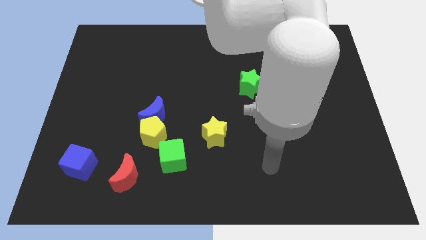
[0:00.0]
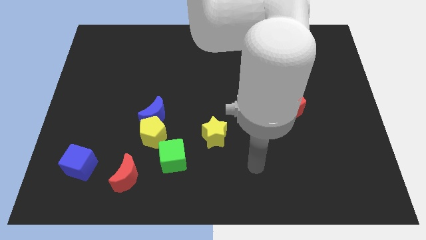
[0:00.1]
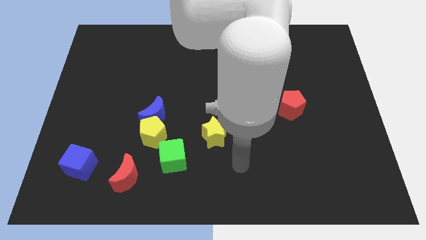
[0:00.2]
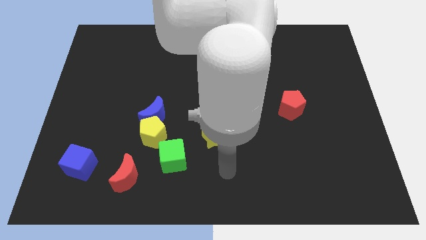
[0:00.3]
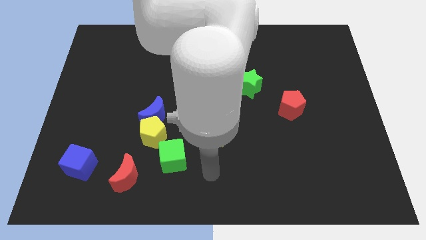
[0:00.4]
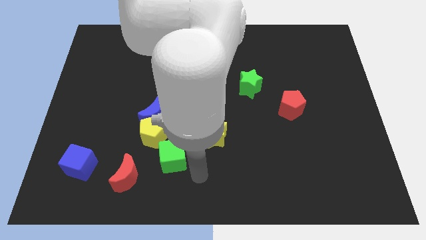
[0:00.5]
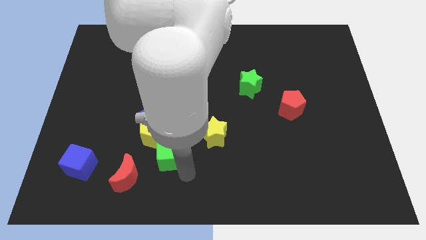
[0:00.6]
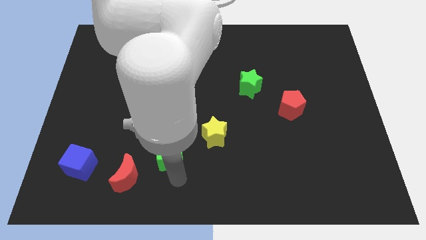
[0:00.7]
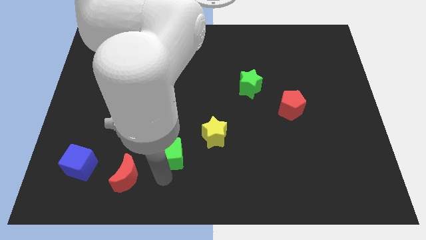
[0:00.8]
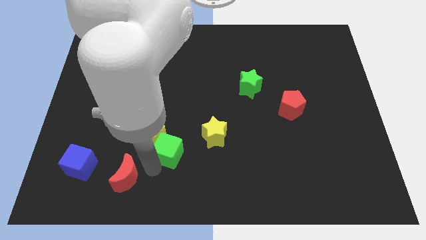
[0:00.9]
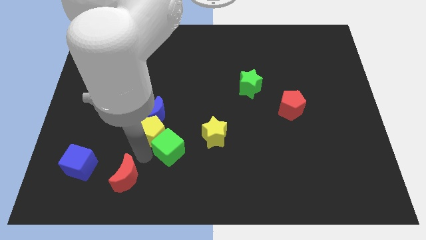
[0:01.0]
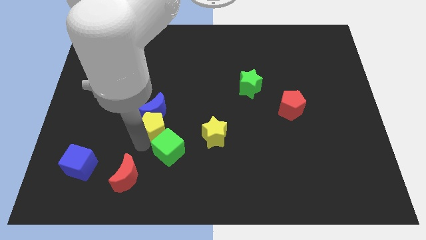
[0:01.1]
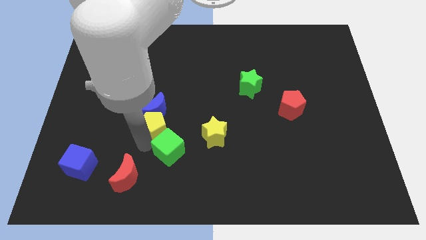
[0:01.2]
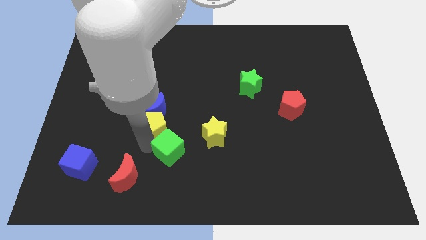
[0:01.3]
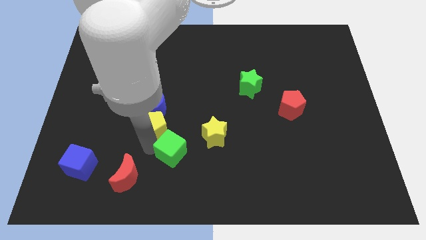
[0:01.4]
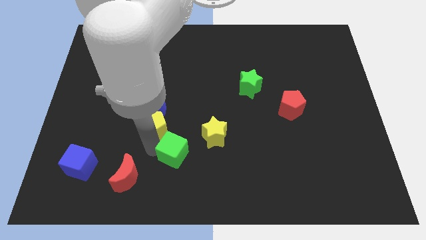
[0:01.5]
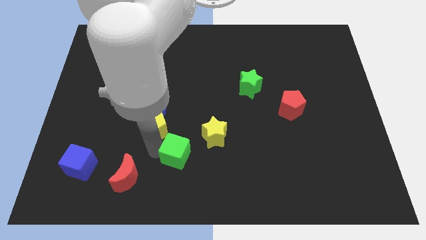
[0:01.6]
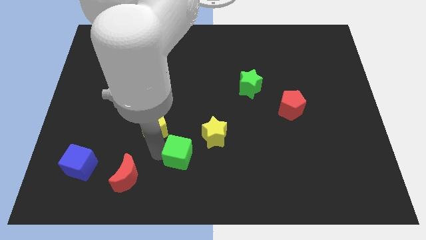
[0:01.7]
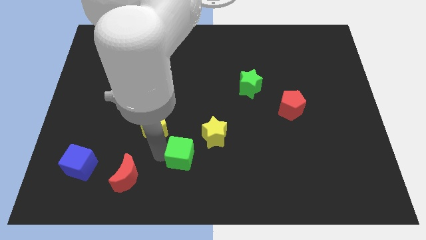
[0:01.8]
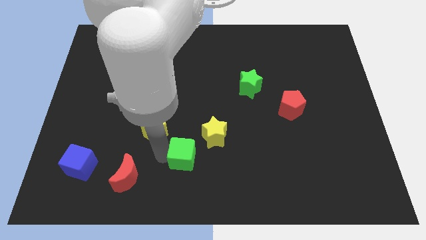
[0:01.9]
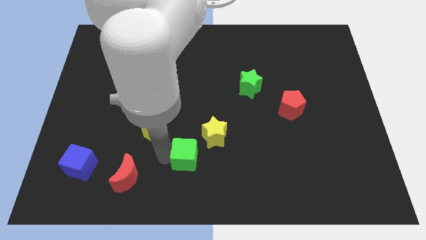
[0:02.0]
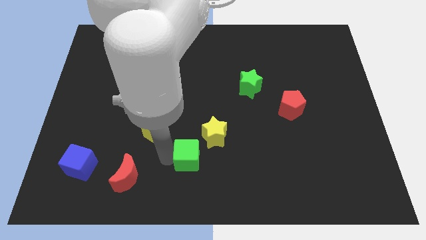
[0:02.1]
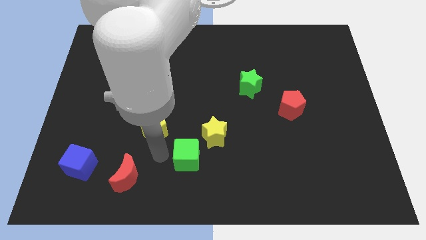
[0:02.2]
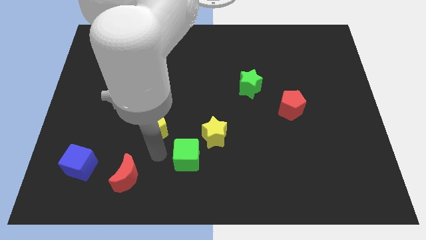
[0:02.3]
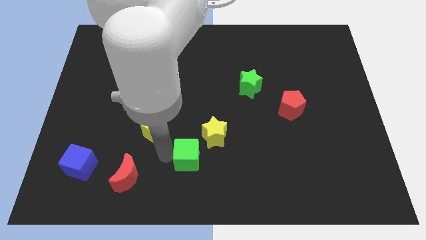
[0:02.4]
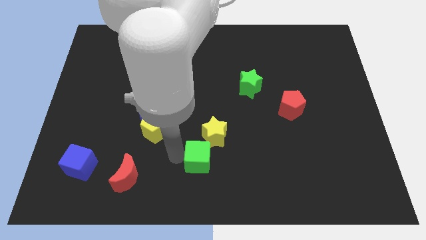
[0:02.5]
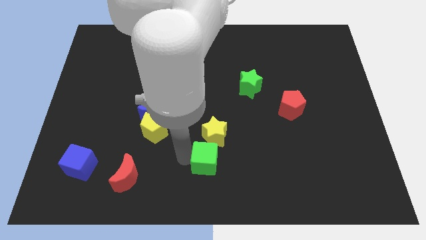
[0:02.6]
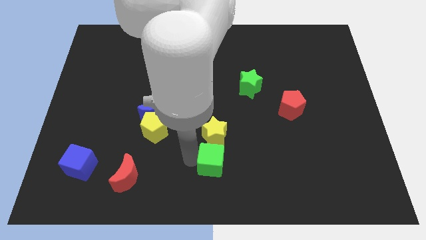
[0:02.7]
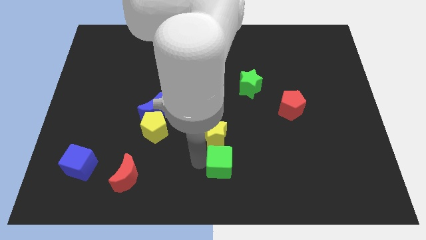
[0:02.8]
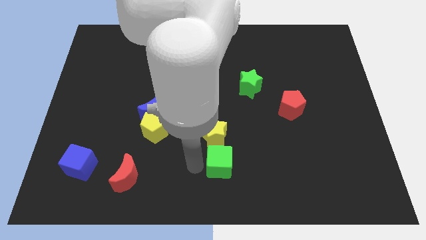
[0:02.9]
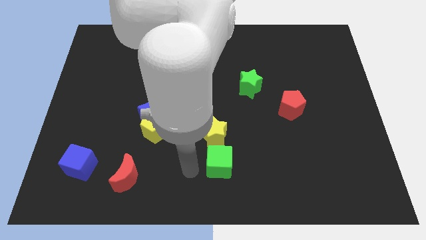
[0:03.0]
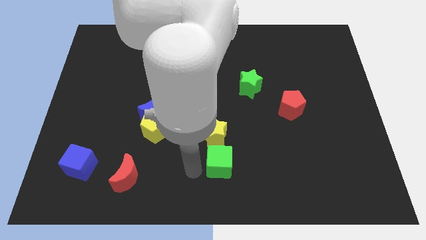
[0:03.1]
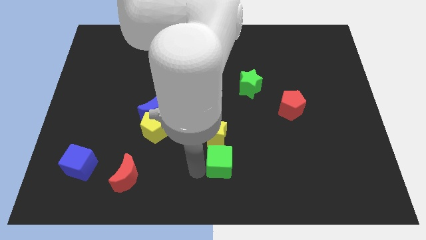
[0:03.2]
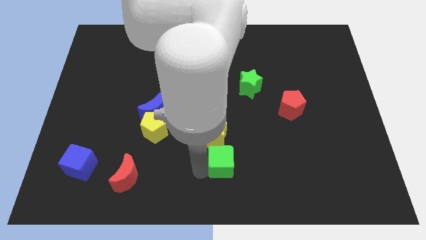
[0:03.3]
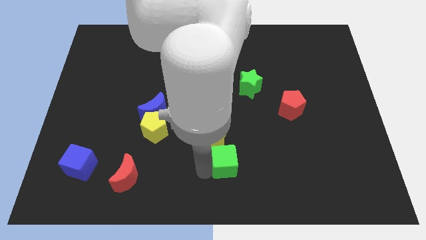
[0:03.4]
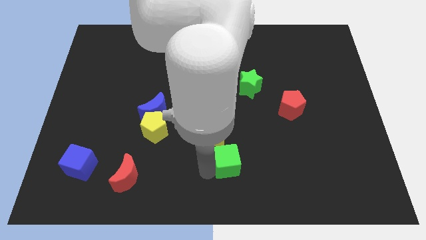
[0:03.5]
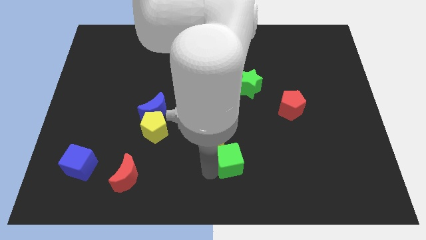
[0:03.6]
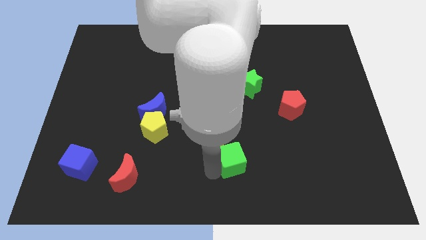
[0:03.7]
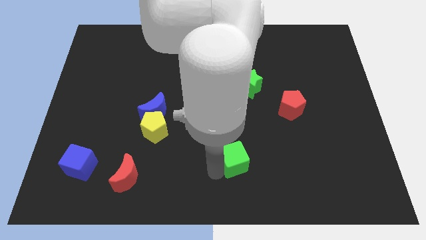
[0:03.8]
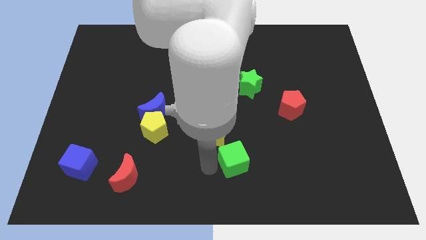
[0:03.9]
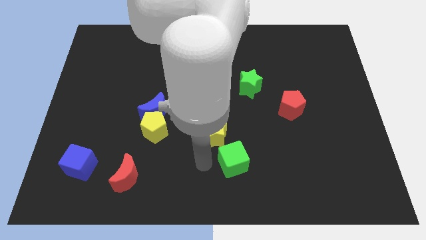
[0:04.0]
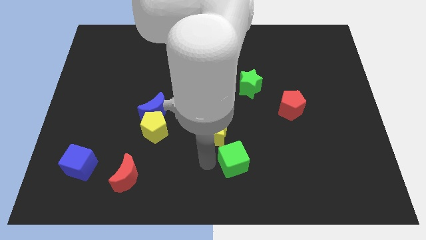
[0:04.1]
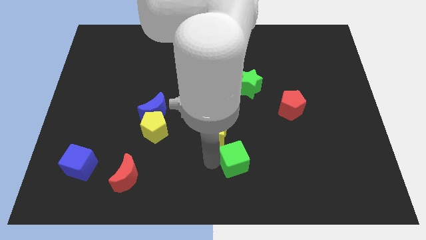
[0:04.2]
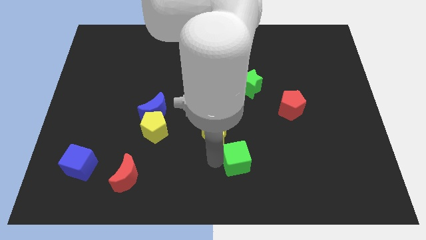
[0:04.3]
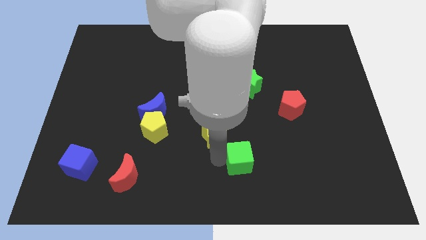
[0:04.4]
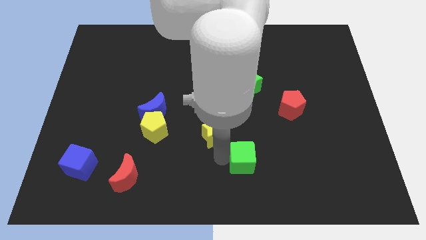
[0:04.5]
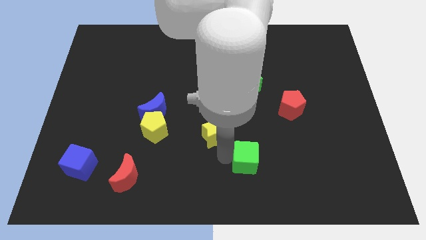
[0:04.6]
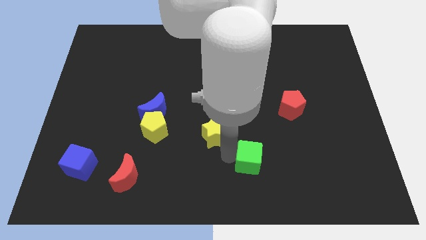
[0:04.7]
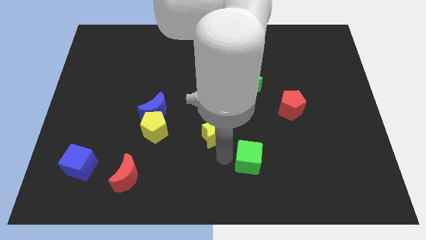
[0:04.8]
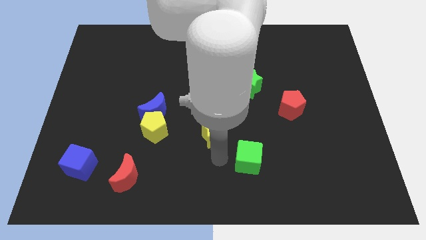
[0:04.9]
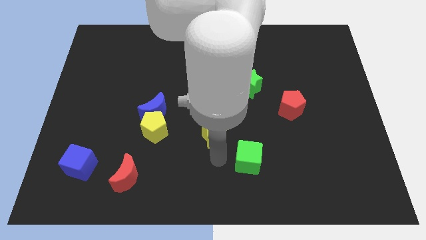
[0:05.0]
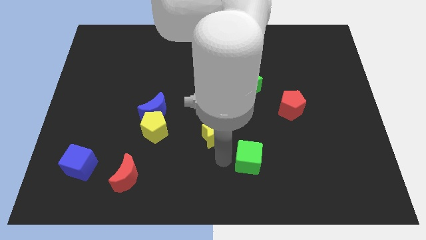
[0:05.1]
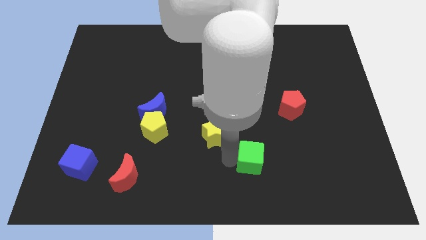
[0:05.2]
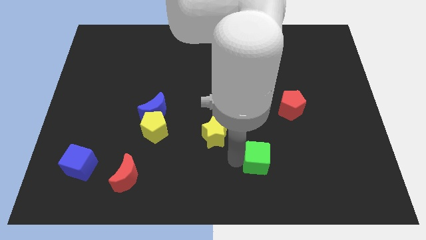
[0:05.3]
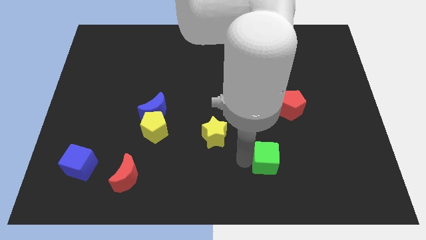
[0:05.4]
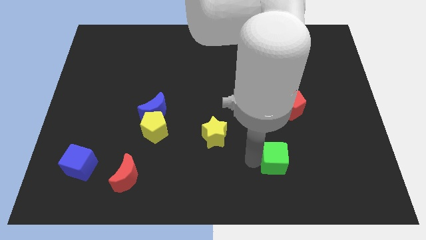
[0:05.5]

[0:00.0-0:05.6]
push the green cube to the right

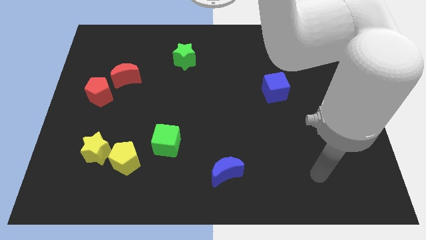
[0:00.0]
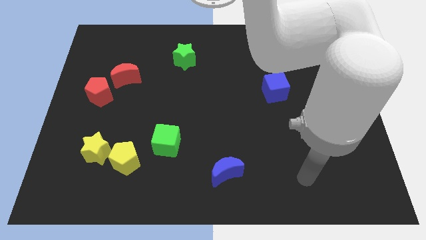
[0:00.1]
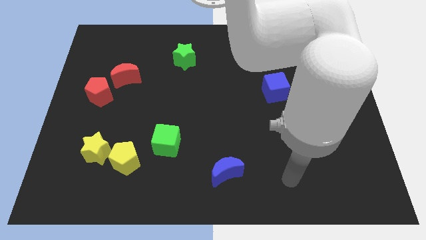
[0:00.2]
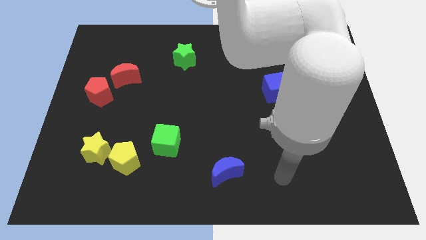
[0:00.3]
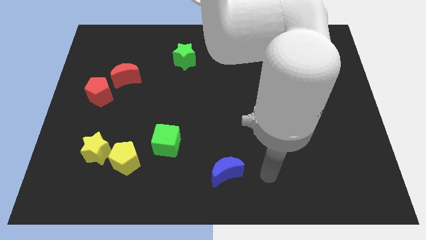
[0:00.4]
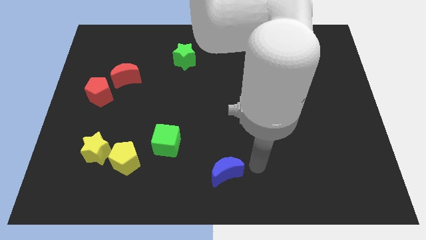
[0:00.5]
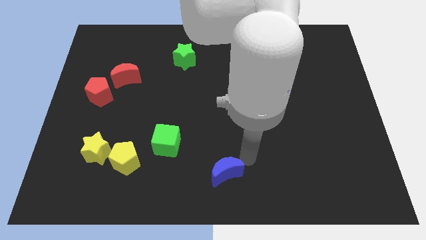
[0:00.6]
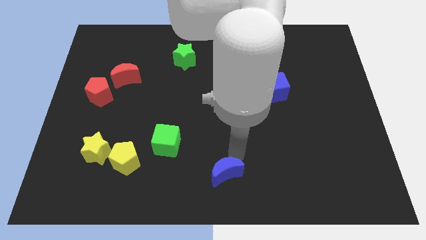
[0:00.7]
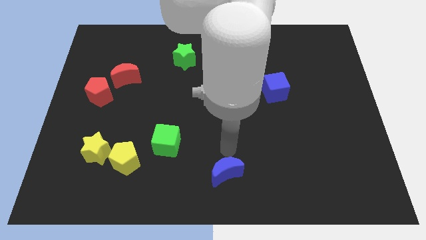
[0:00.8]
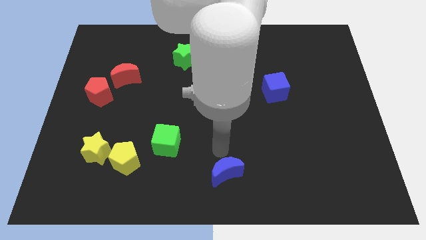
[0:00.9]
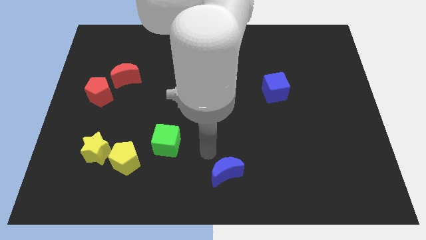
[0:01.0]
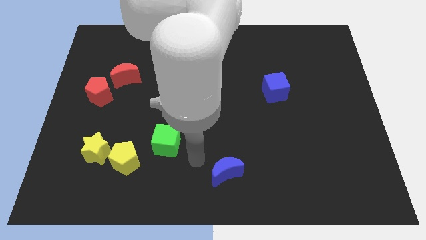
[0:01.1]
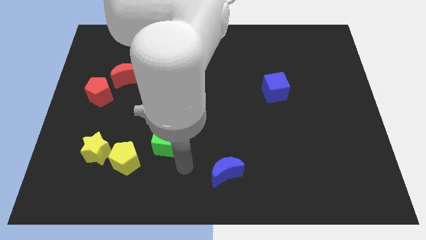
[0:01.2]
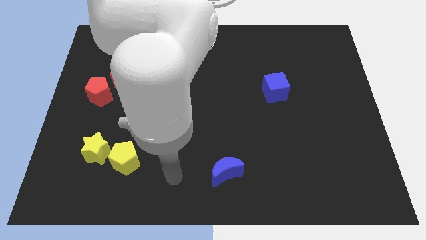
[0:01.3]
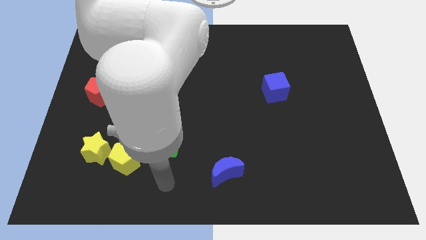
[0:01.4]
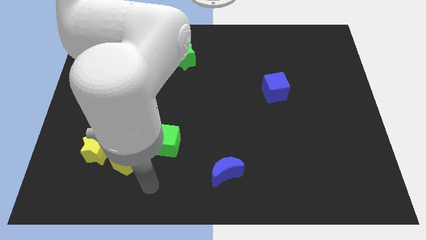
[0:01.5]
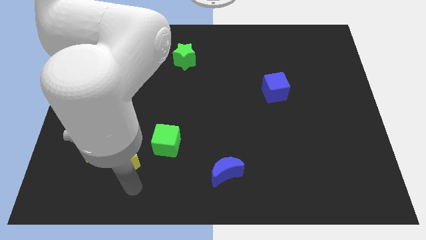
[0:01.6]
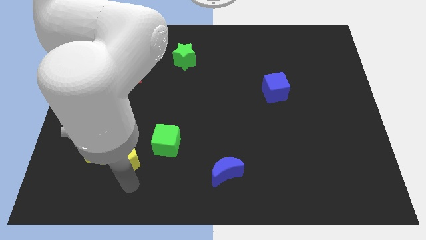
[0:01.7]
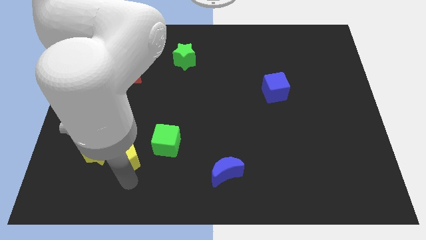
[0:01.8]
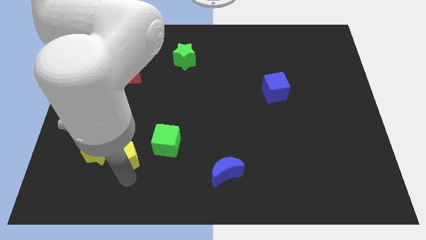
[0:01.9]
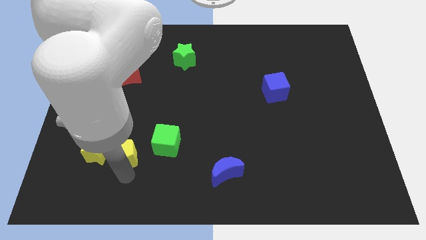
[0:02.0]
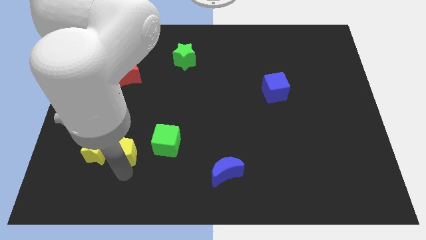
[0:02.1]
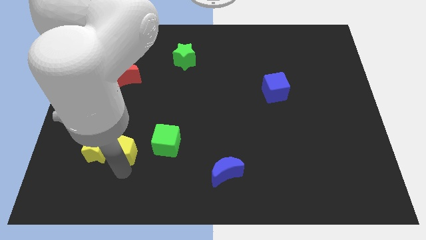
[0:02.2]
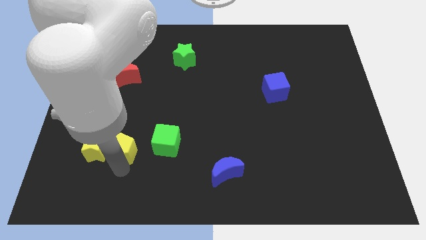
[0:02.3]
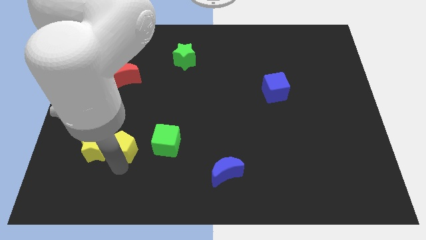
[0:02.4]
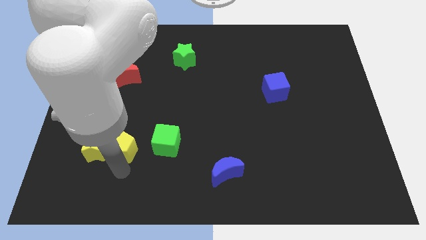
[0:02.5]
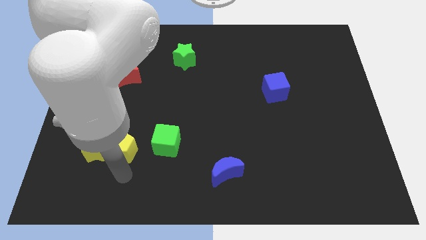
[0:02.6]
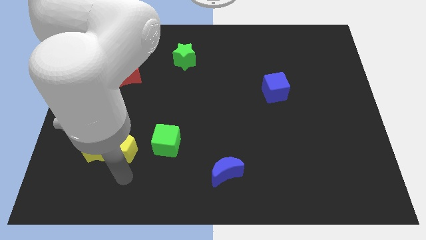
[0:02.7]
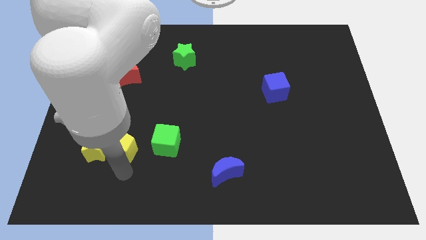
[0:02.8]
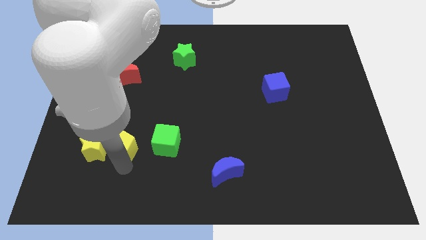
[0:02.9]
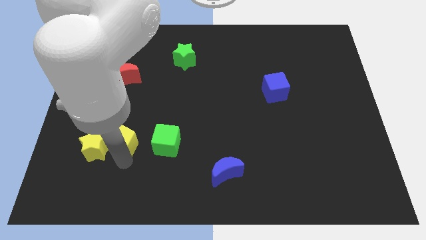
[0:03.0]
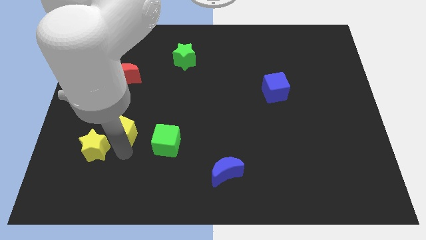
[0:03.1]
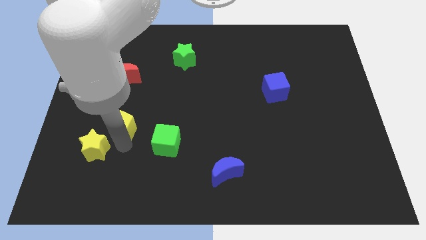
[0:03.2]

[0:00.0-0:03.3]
move the yellow pentagon a little upwards
